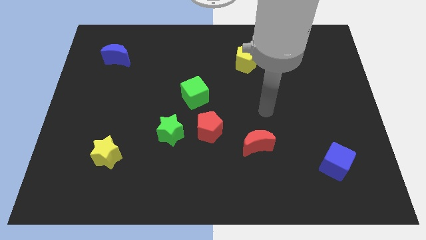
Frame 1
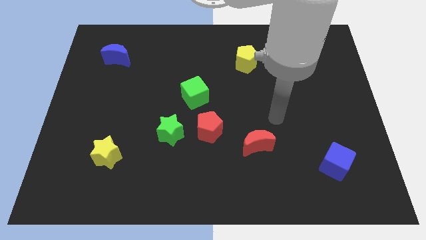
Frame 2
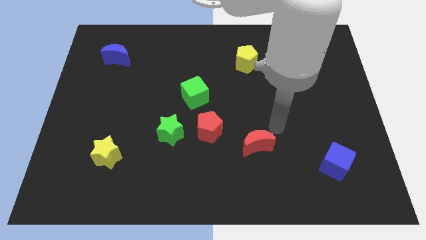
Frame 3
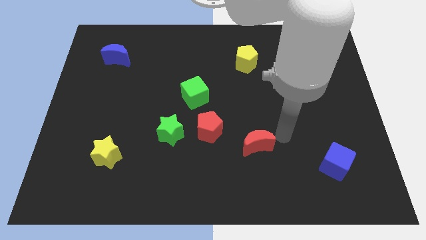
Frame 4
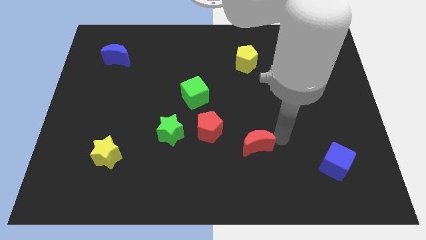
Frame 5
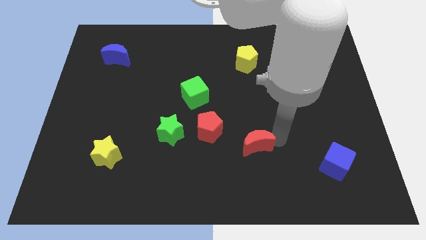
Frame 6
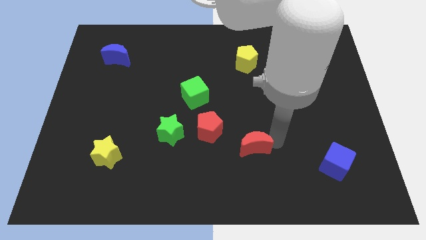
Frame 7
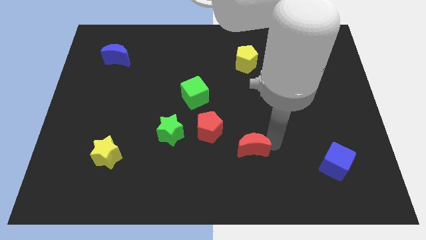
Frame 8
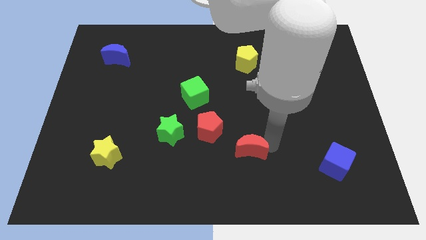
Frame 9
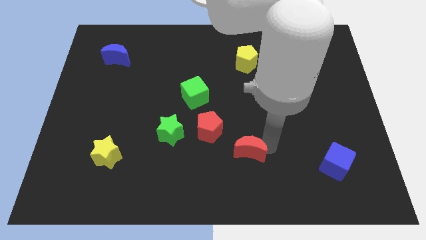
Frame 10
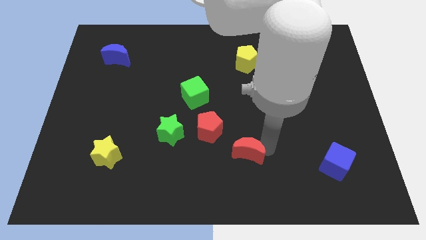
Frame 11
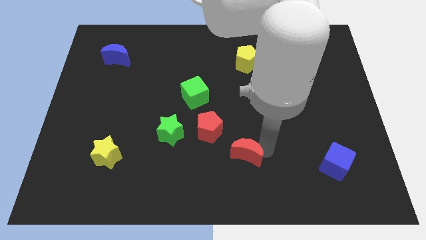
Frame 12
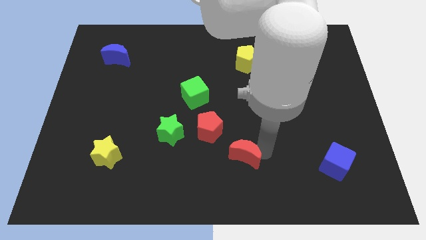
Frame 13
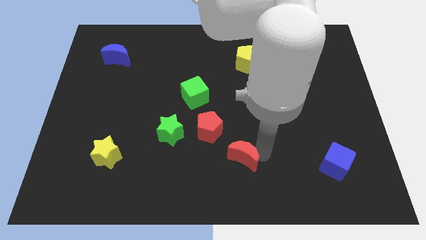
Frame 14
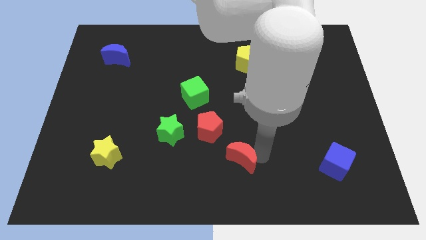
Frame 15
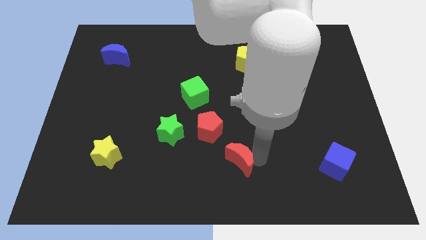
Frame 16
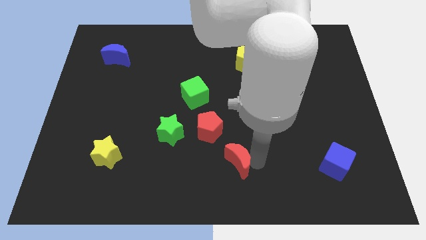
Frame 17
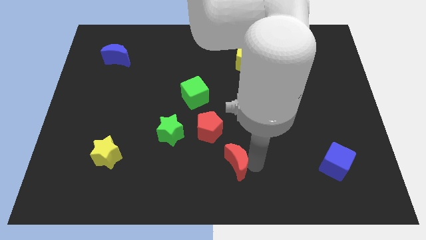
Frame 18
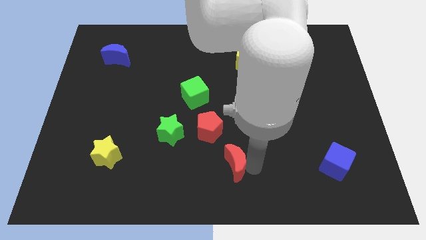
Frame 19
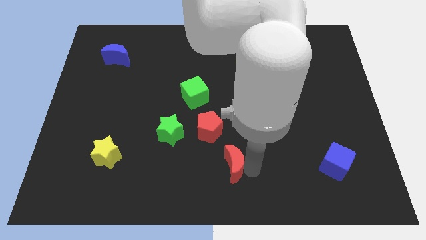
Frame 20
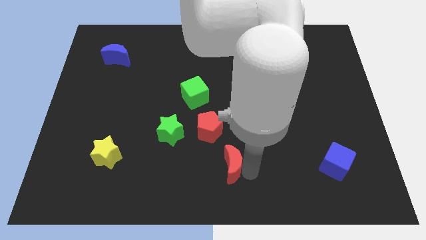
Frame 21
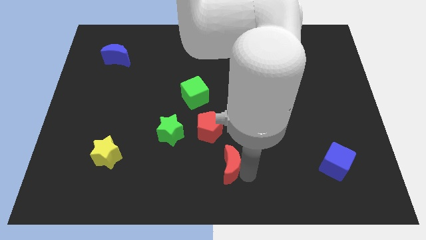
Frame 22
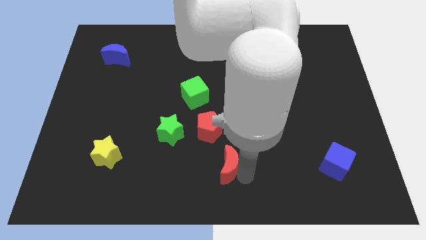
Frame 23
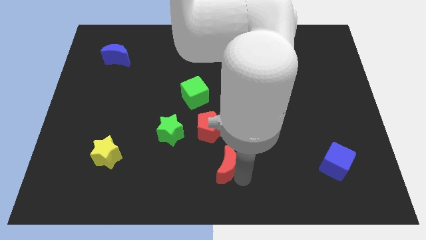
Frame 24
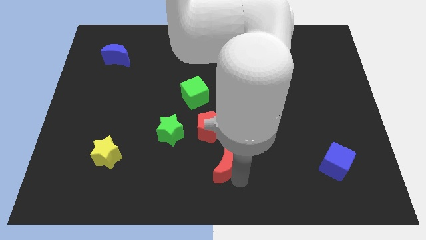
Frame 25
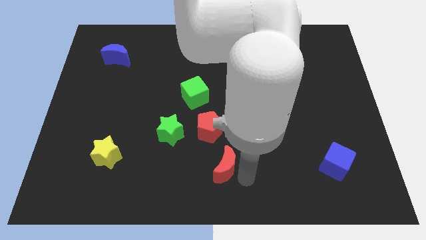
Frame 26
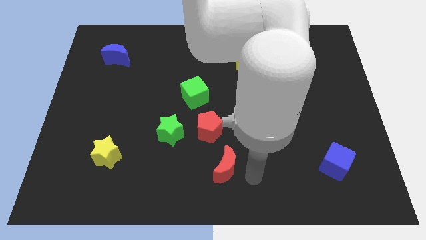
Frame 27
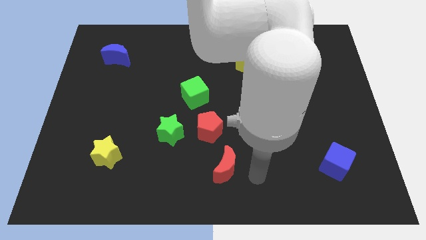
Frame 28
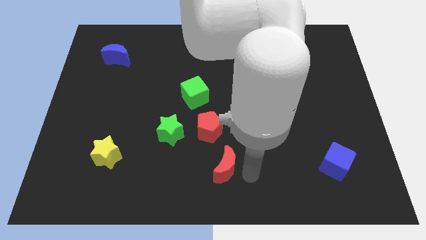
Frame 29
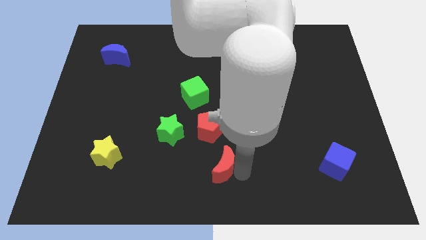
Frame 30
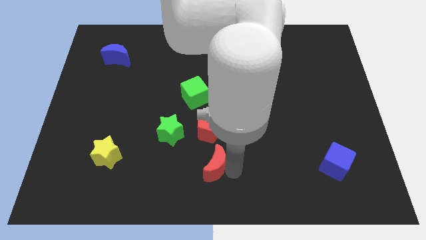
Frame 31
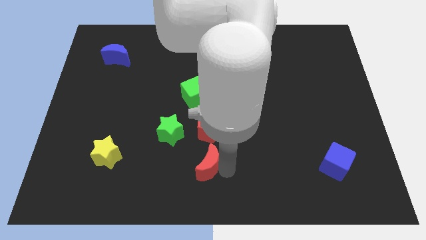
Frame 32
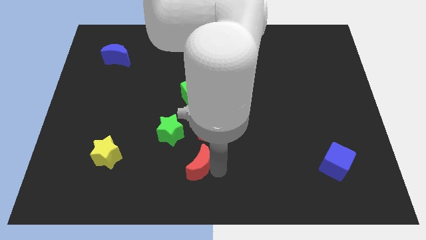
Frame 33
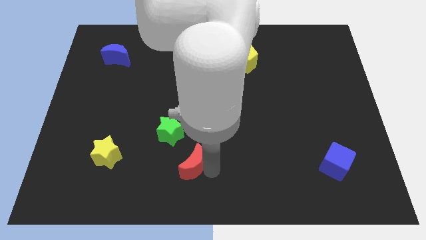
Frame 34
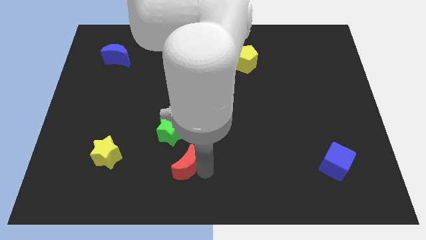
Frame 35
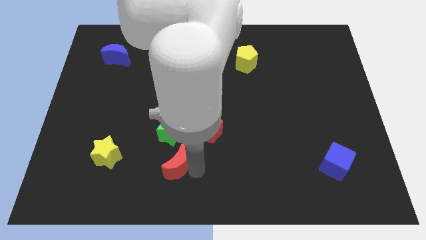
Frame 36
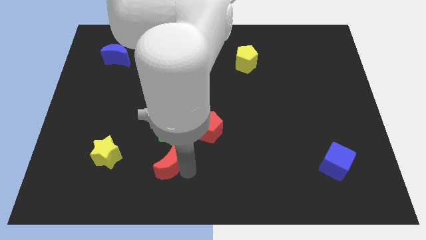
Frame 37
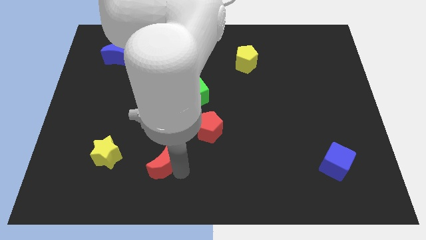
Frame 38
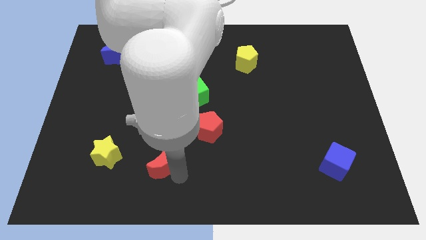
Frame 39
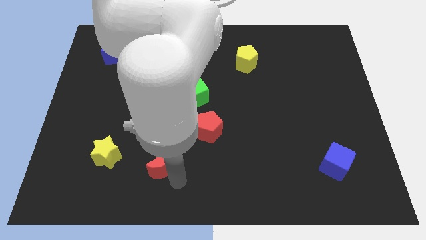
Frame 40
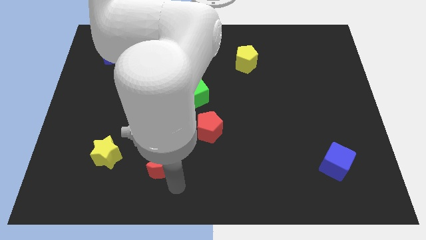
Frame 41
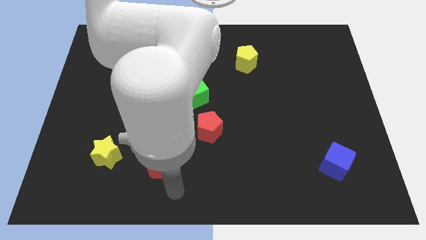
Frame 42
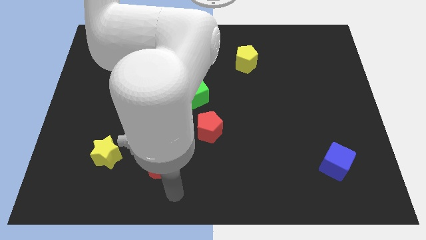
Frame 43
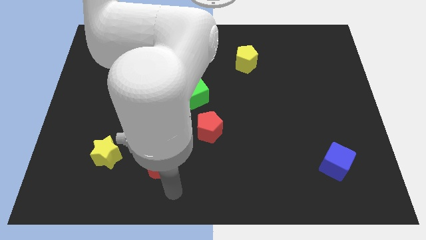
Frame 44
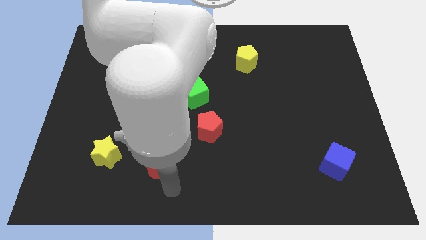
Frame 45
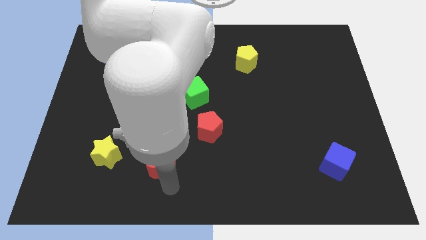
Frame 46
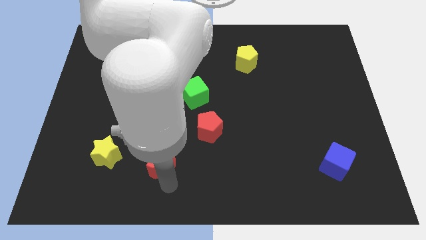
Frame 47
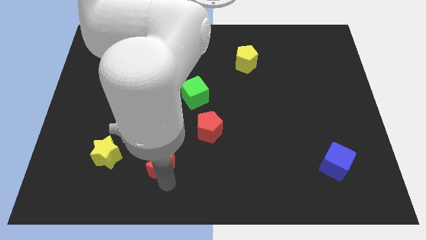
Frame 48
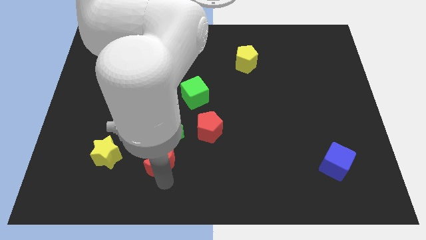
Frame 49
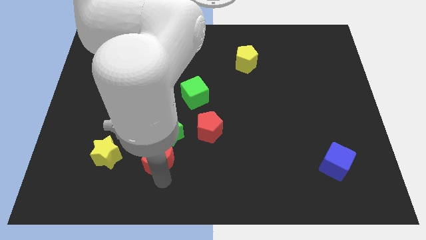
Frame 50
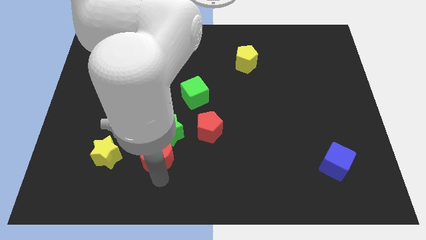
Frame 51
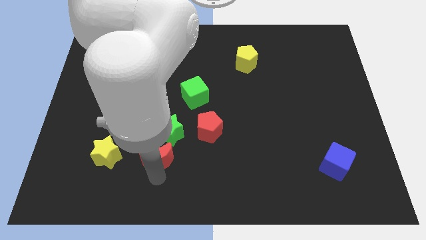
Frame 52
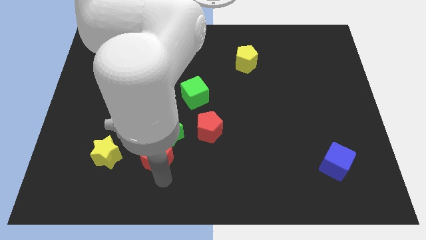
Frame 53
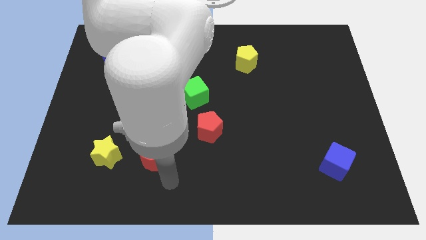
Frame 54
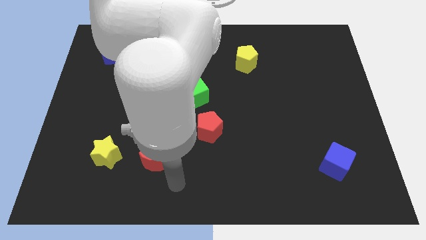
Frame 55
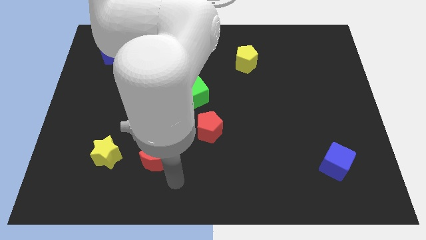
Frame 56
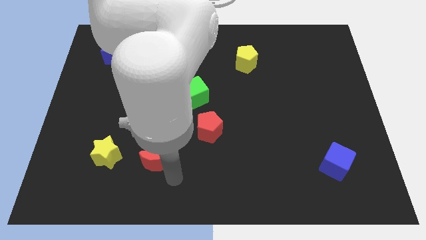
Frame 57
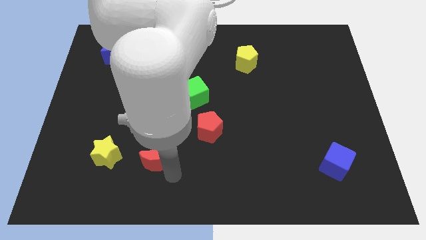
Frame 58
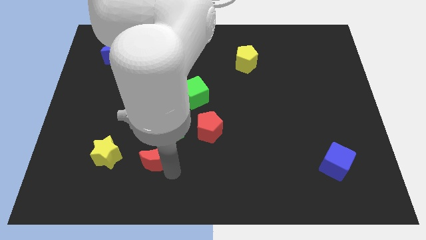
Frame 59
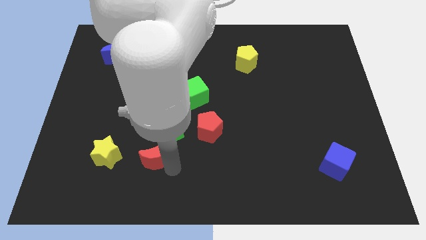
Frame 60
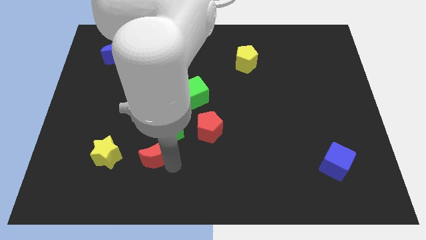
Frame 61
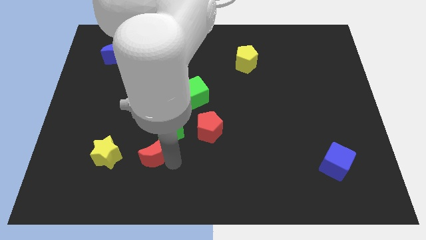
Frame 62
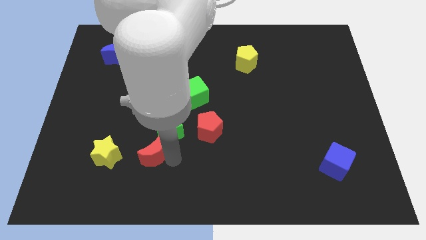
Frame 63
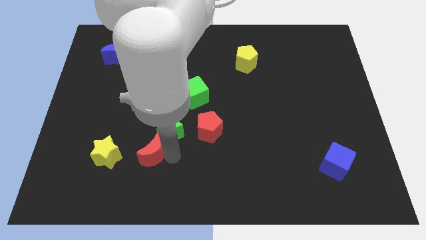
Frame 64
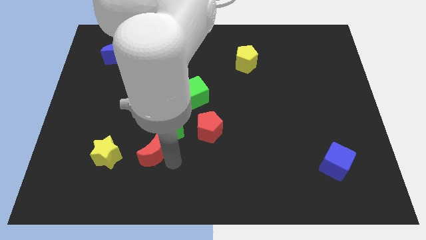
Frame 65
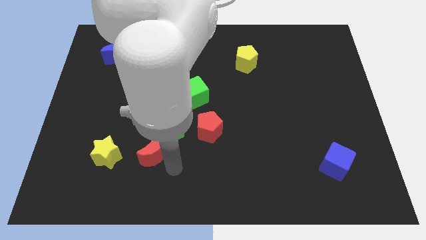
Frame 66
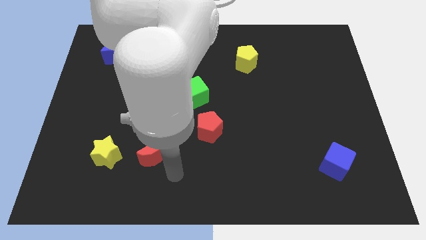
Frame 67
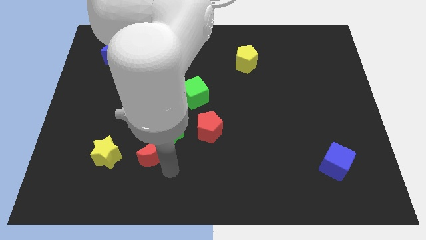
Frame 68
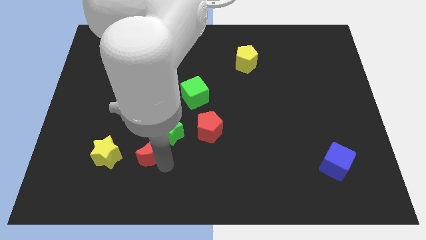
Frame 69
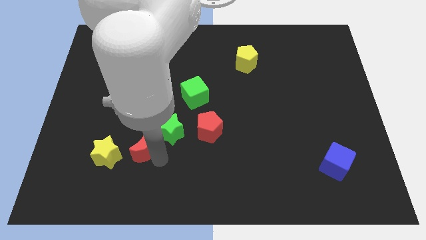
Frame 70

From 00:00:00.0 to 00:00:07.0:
move the red moon to the left side of the green star
